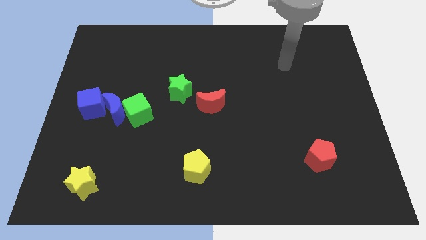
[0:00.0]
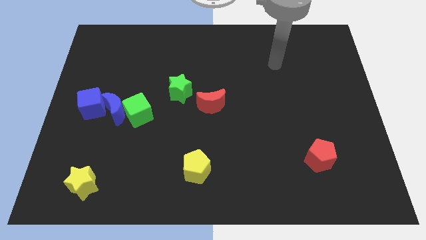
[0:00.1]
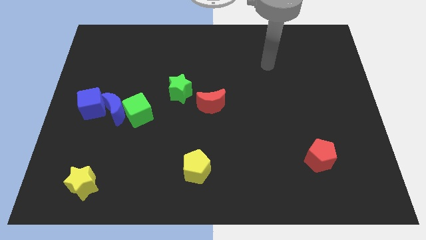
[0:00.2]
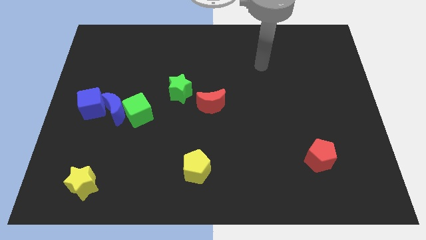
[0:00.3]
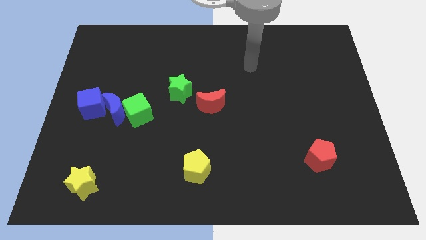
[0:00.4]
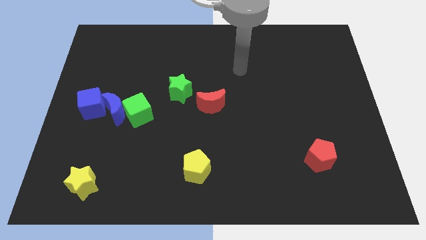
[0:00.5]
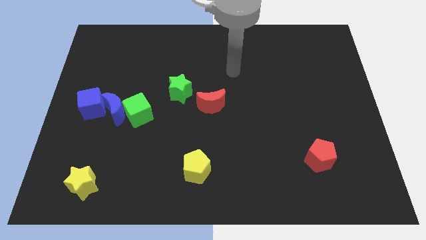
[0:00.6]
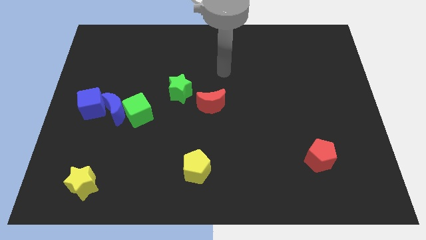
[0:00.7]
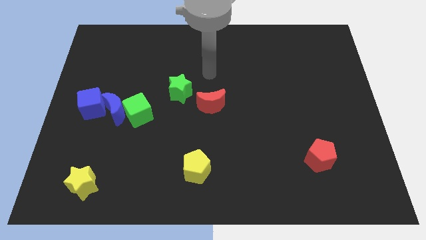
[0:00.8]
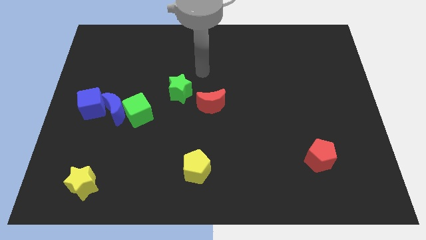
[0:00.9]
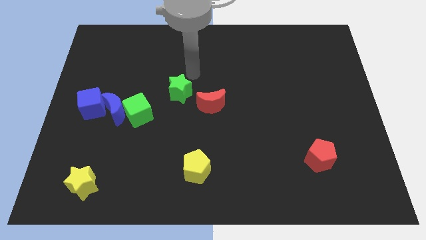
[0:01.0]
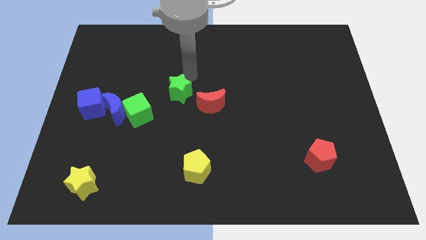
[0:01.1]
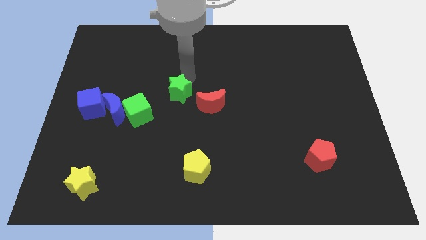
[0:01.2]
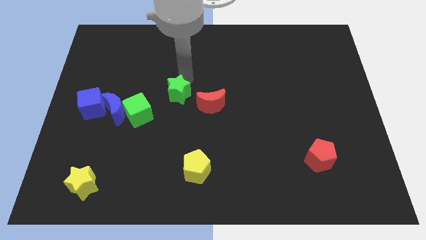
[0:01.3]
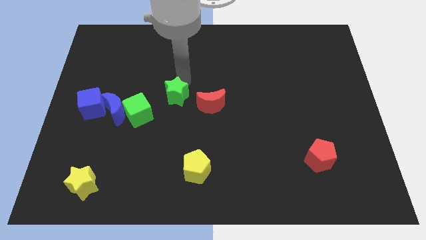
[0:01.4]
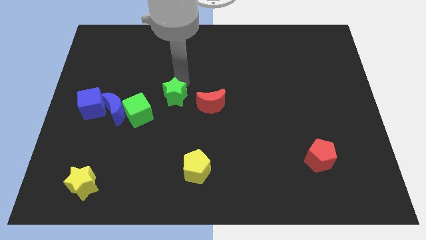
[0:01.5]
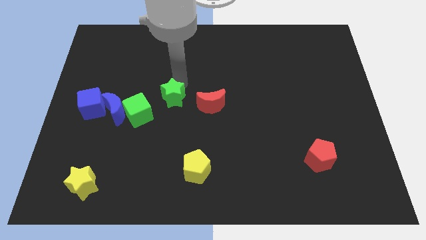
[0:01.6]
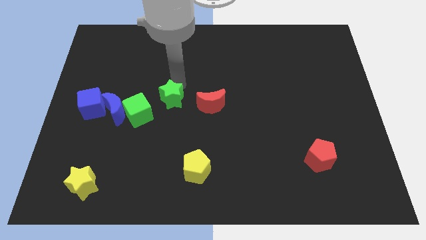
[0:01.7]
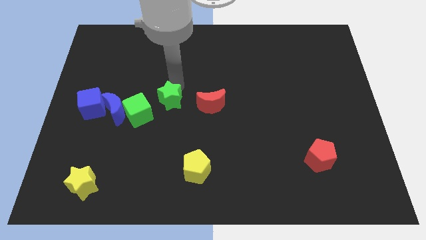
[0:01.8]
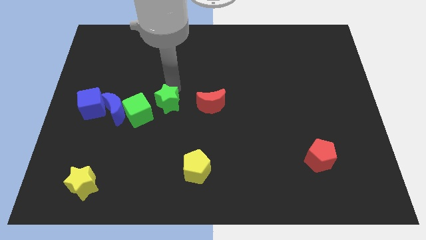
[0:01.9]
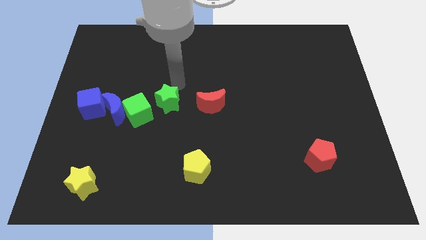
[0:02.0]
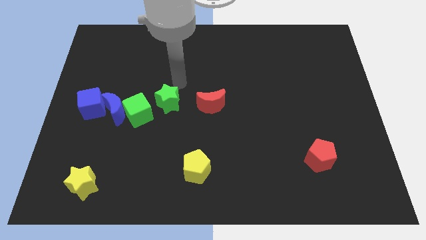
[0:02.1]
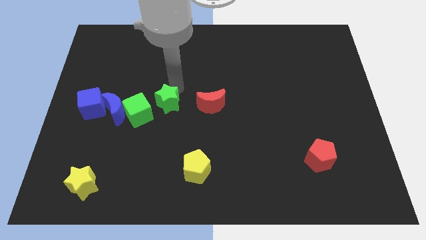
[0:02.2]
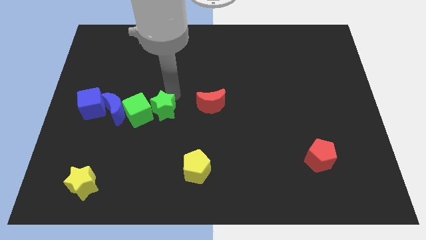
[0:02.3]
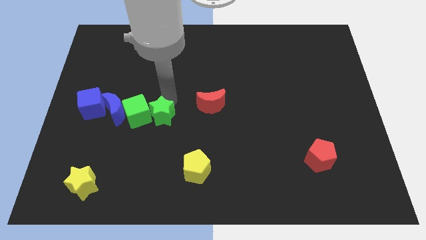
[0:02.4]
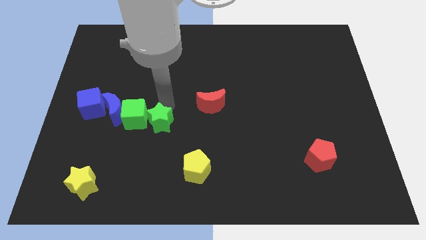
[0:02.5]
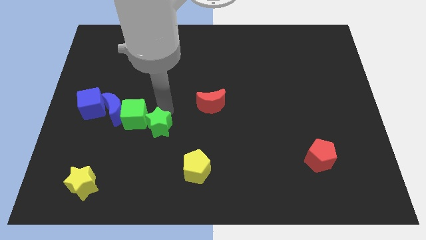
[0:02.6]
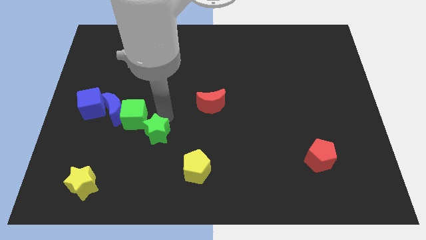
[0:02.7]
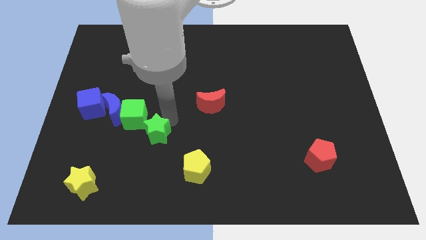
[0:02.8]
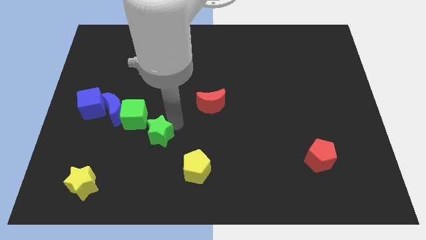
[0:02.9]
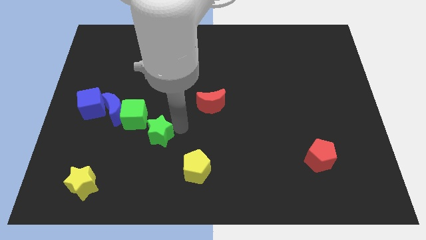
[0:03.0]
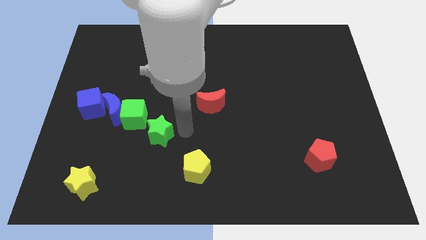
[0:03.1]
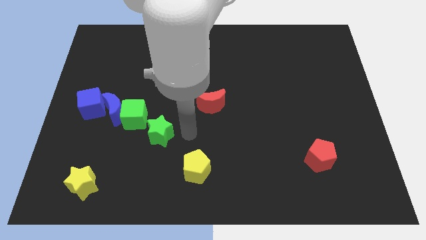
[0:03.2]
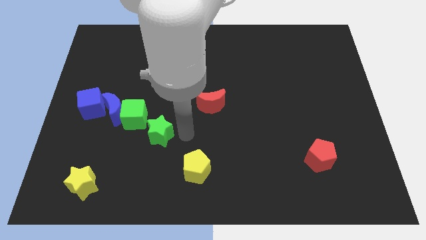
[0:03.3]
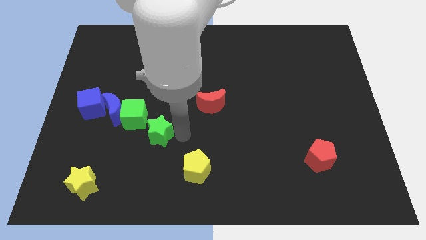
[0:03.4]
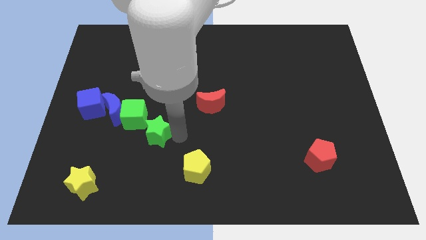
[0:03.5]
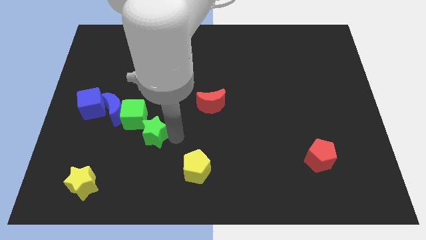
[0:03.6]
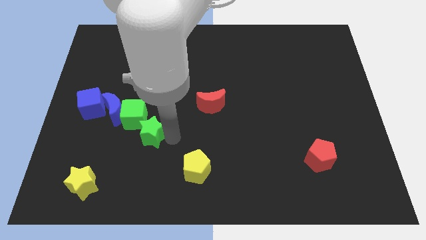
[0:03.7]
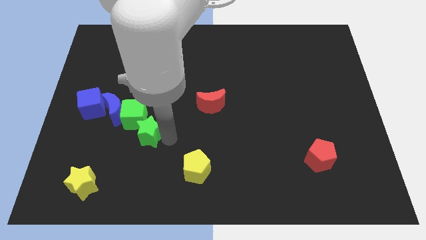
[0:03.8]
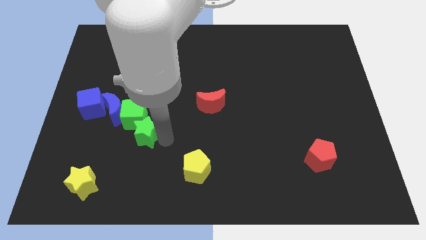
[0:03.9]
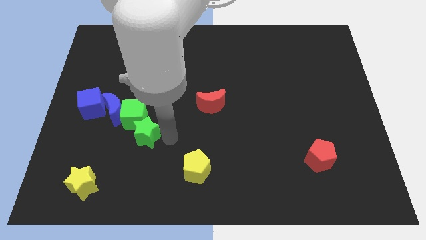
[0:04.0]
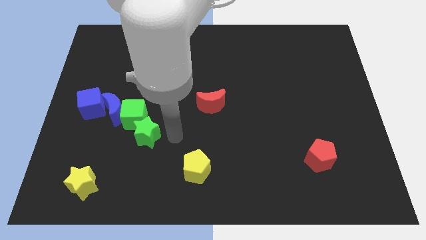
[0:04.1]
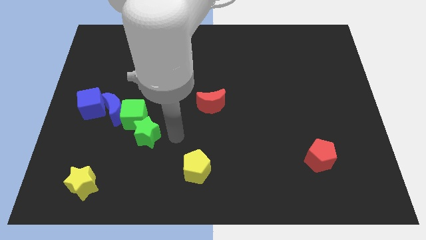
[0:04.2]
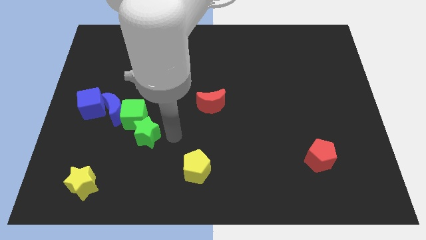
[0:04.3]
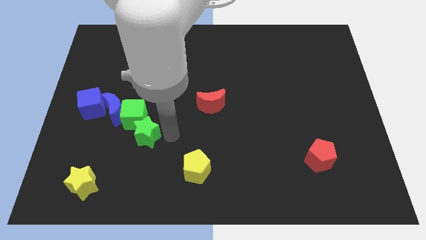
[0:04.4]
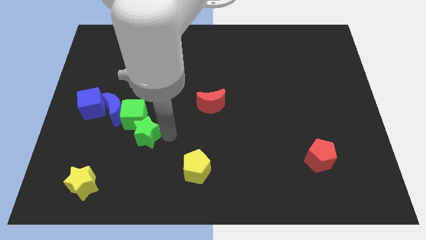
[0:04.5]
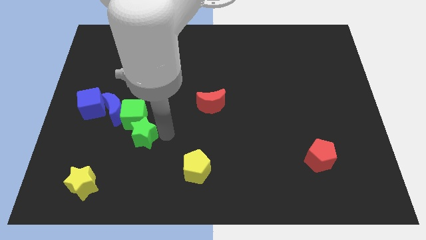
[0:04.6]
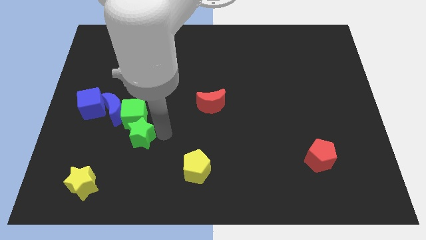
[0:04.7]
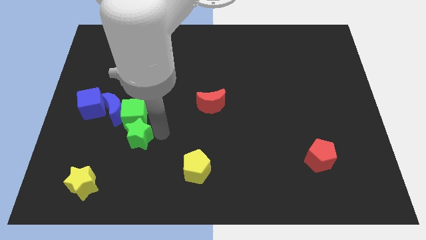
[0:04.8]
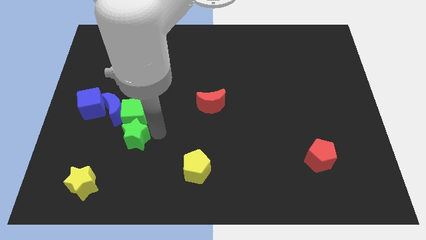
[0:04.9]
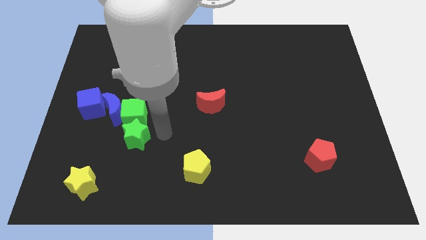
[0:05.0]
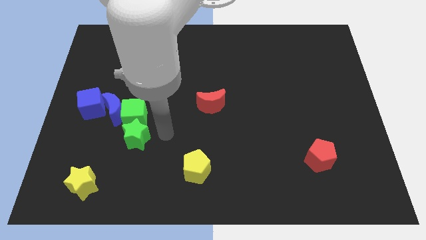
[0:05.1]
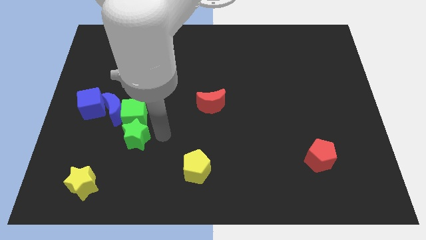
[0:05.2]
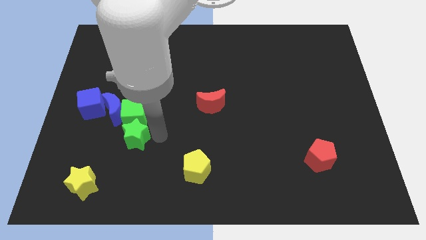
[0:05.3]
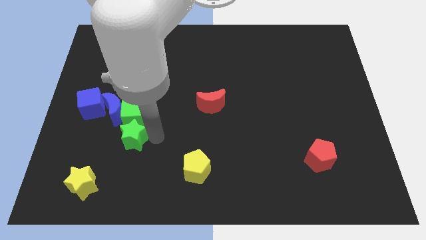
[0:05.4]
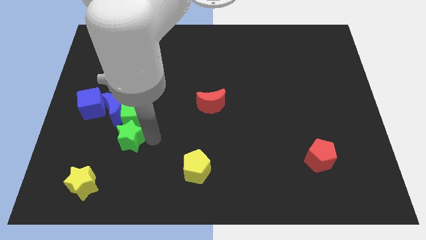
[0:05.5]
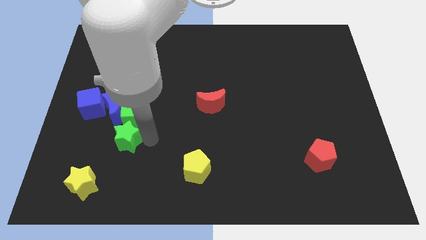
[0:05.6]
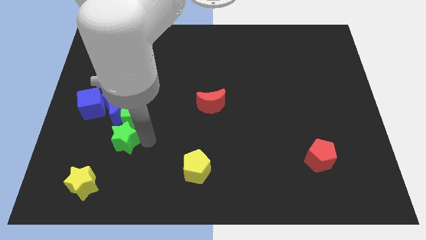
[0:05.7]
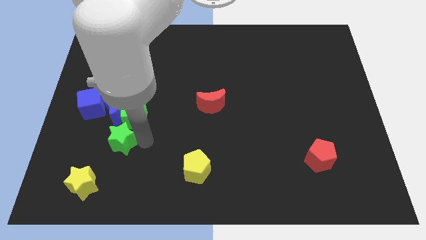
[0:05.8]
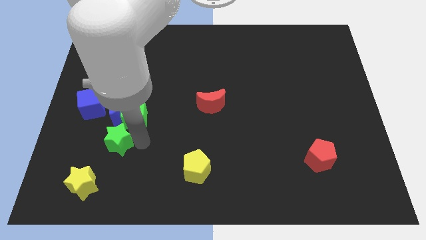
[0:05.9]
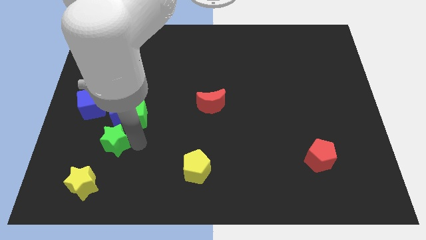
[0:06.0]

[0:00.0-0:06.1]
put the green star to the top side of the yellow star

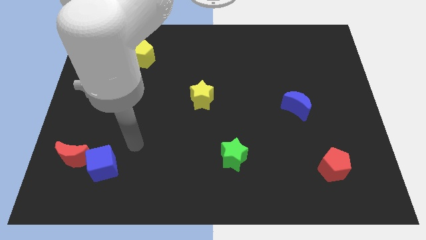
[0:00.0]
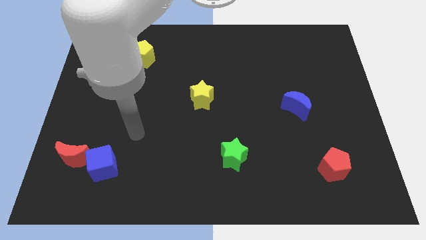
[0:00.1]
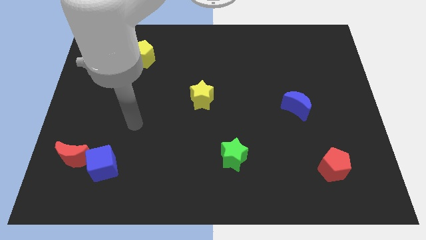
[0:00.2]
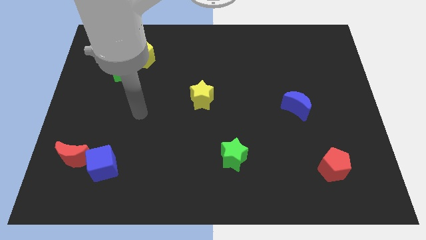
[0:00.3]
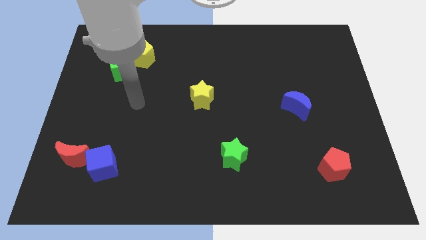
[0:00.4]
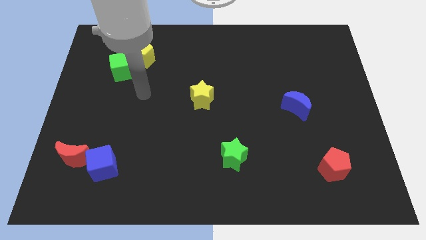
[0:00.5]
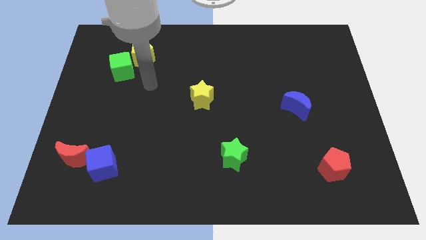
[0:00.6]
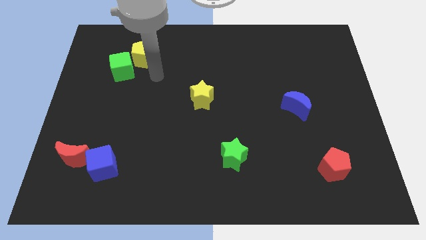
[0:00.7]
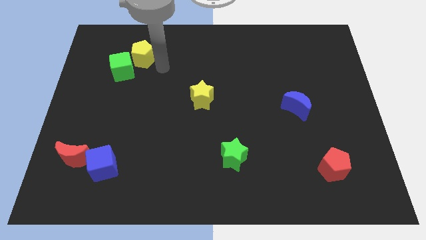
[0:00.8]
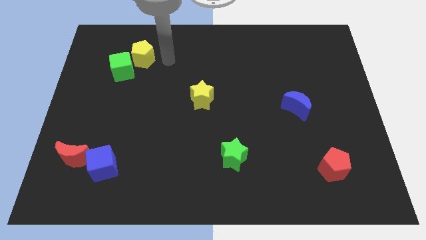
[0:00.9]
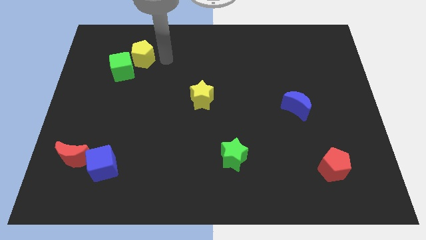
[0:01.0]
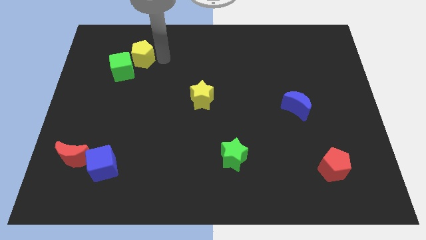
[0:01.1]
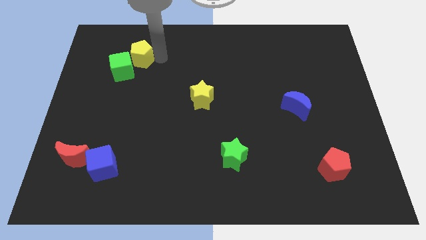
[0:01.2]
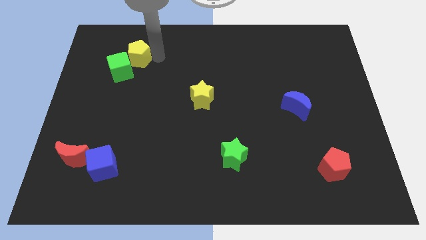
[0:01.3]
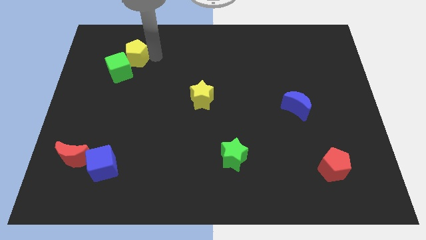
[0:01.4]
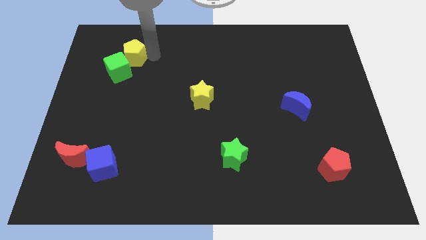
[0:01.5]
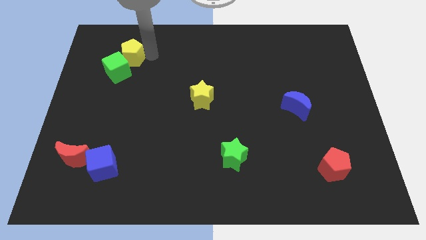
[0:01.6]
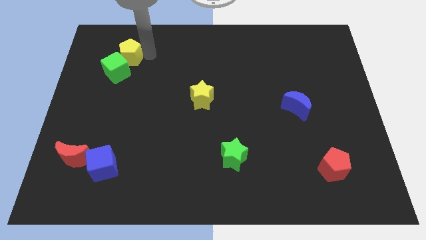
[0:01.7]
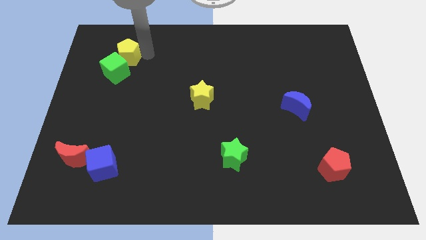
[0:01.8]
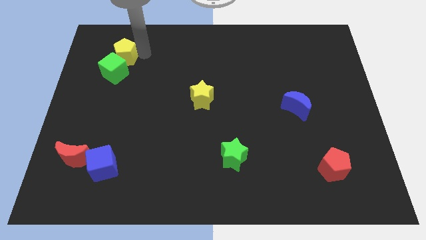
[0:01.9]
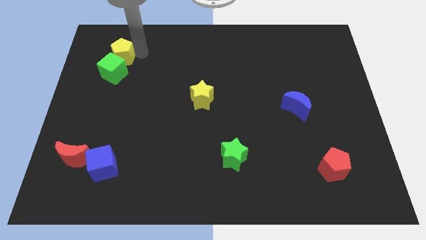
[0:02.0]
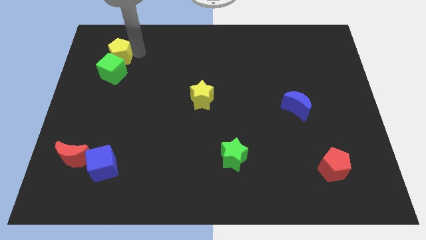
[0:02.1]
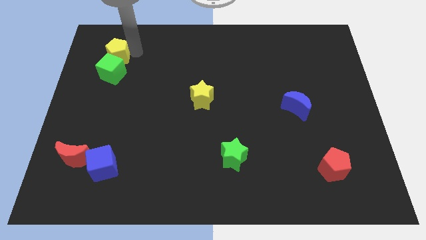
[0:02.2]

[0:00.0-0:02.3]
put the yellow pentagon to the top left of the green cube
